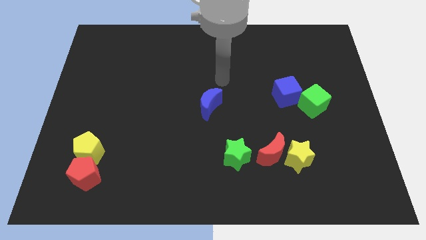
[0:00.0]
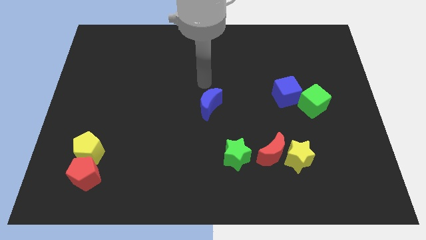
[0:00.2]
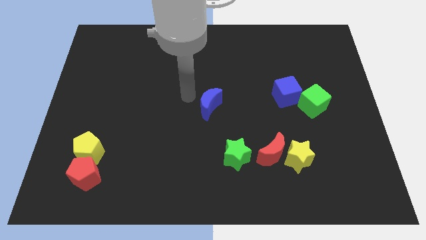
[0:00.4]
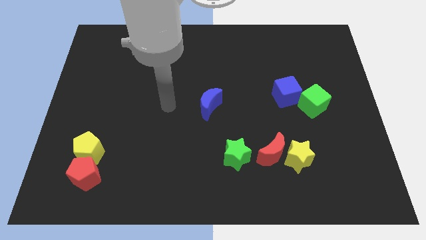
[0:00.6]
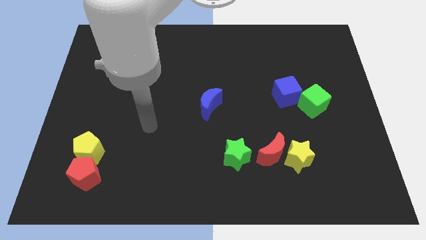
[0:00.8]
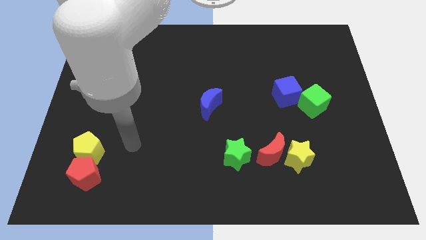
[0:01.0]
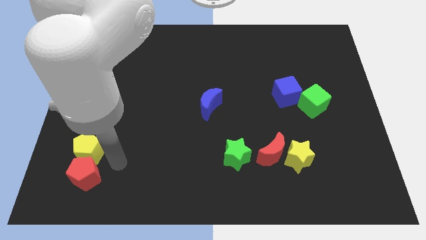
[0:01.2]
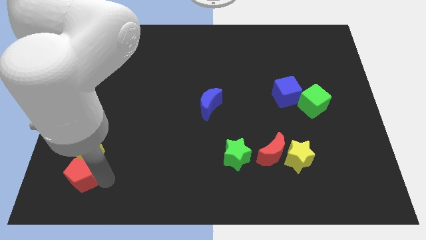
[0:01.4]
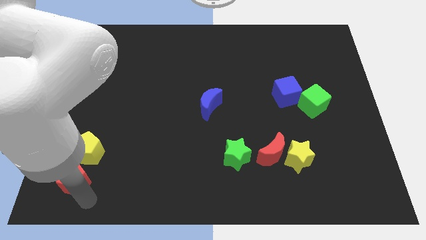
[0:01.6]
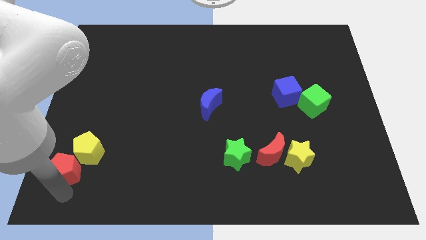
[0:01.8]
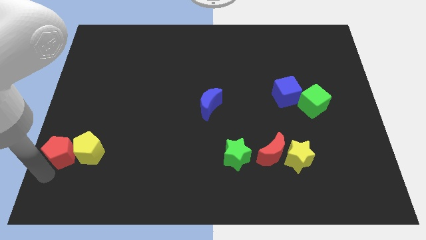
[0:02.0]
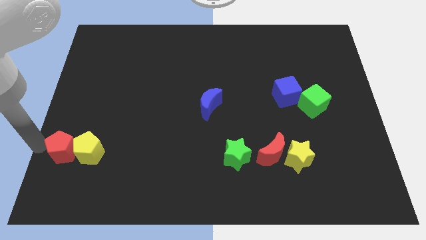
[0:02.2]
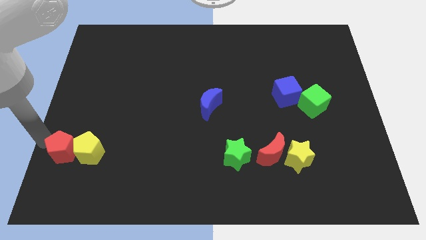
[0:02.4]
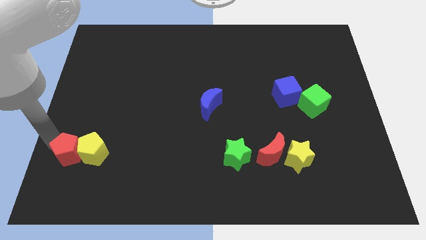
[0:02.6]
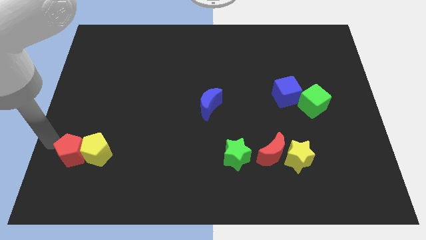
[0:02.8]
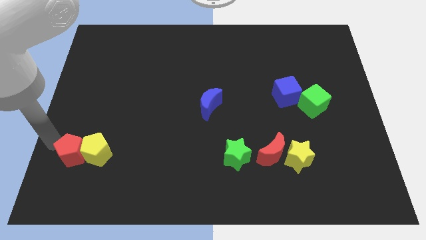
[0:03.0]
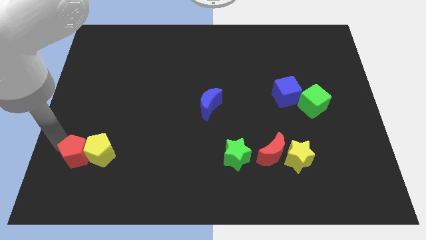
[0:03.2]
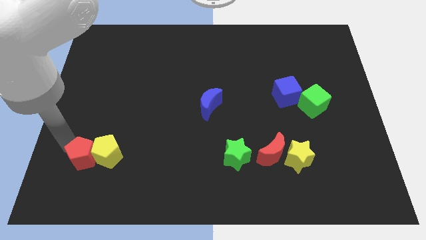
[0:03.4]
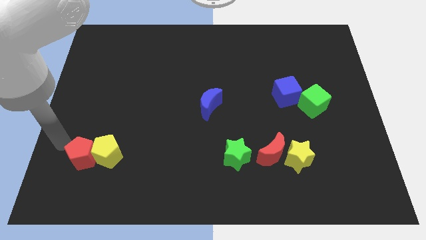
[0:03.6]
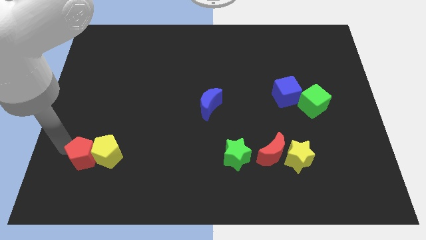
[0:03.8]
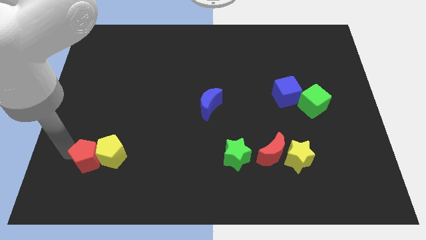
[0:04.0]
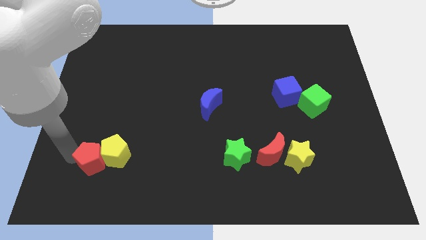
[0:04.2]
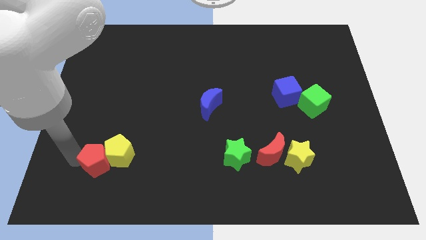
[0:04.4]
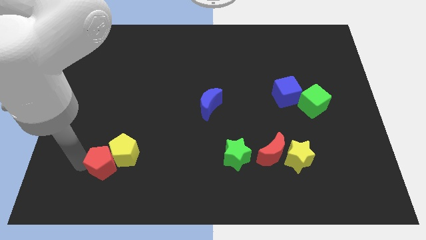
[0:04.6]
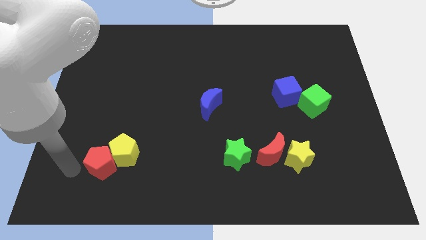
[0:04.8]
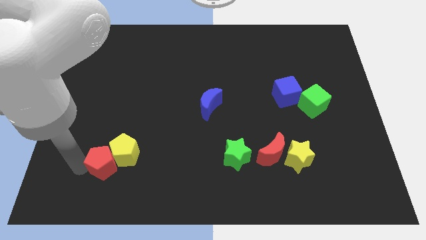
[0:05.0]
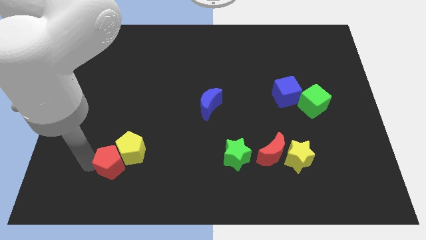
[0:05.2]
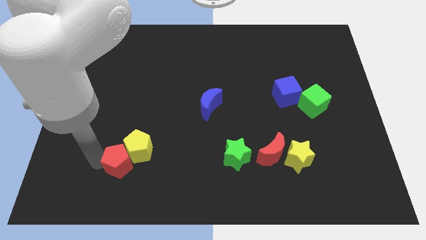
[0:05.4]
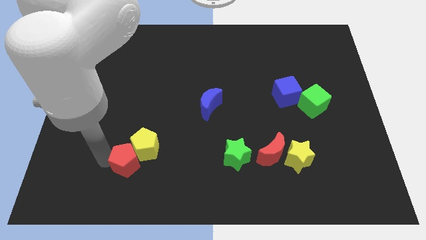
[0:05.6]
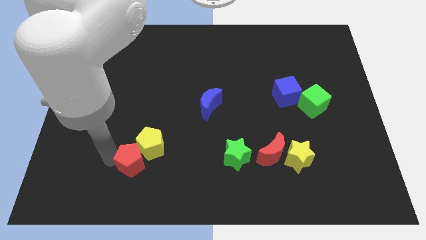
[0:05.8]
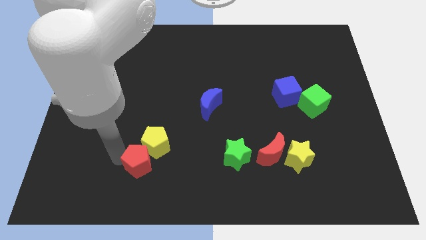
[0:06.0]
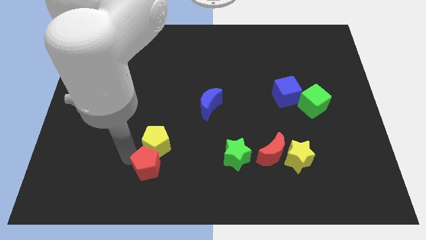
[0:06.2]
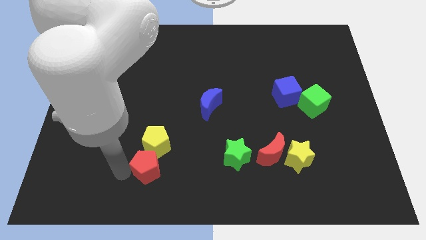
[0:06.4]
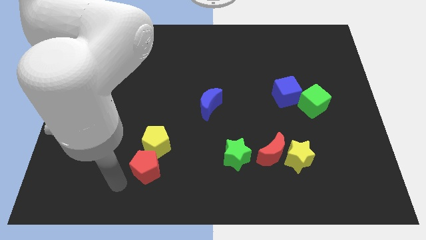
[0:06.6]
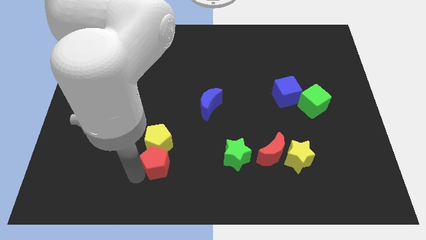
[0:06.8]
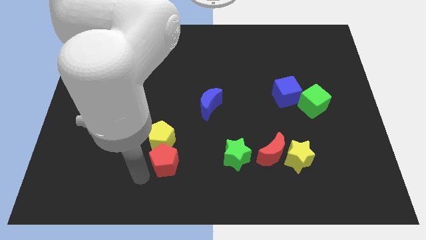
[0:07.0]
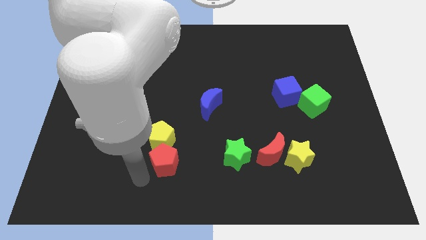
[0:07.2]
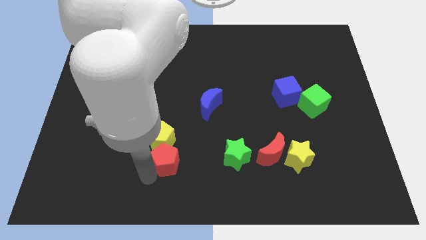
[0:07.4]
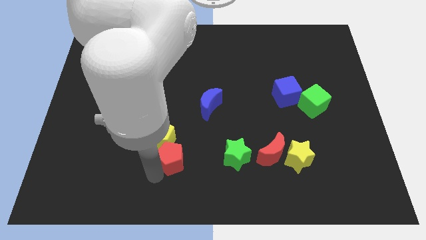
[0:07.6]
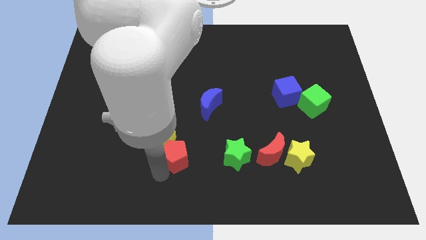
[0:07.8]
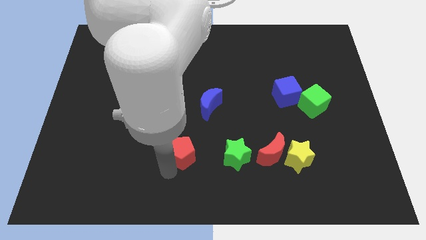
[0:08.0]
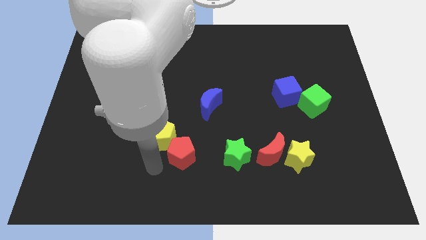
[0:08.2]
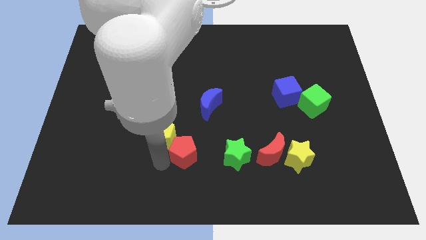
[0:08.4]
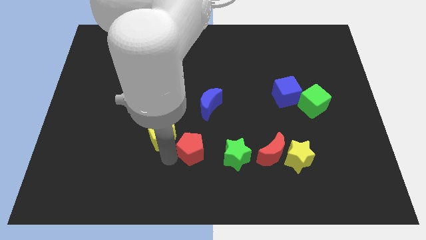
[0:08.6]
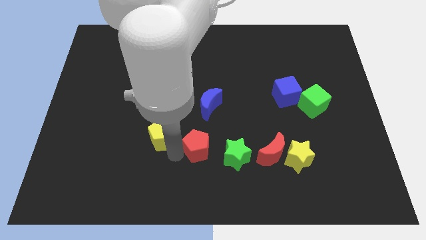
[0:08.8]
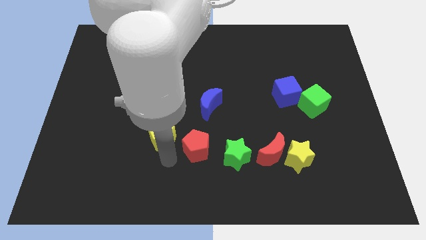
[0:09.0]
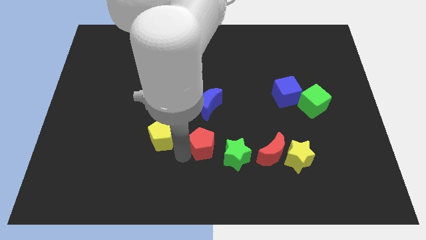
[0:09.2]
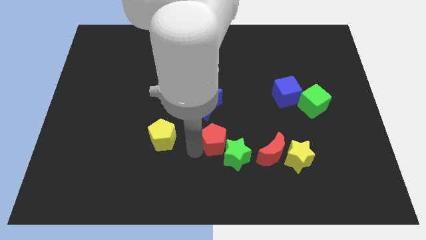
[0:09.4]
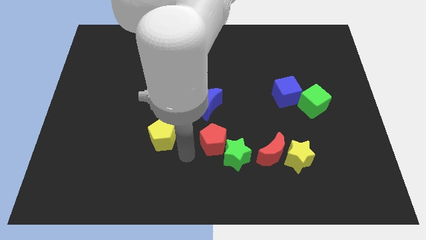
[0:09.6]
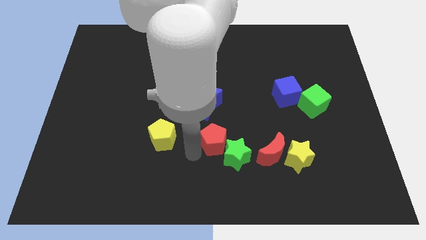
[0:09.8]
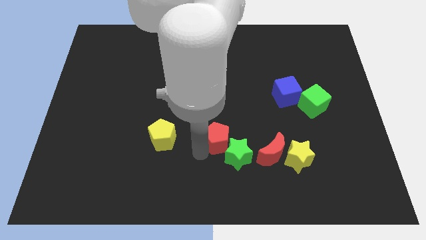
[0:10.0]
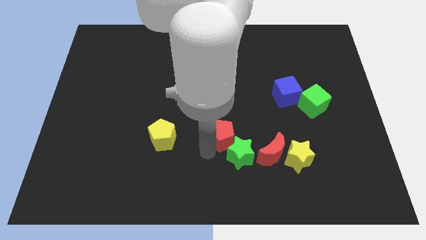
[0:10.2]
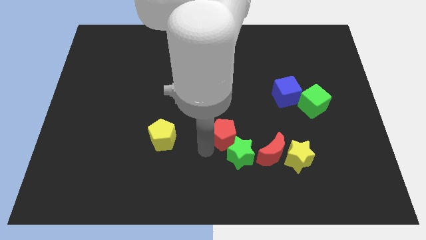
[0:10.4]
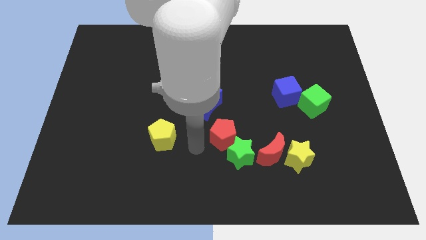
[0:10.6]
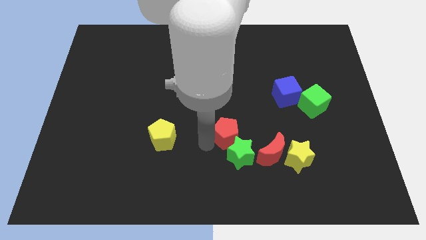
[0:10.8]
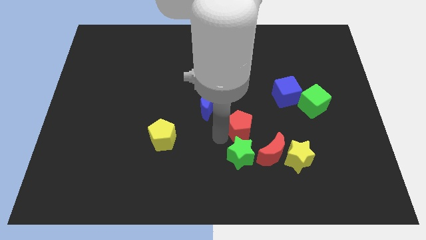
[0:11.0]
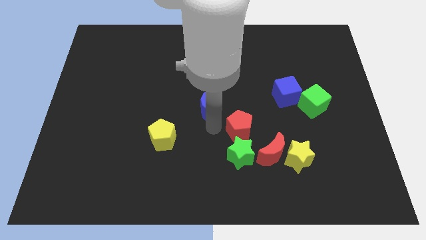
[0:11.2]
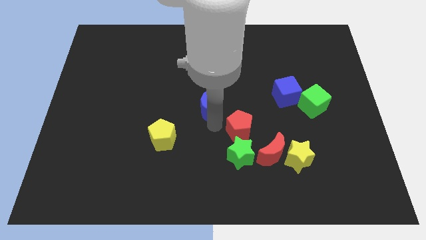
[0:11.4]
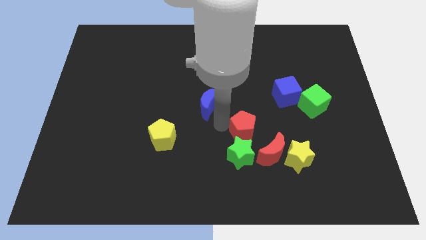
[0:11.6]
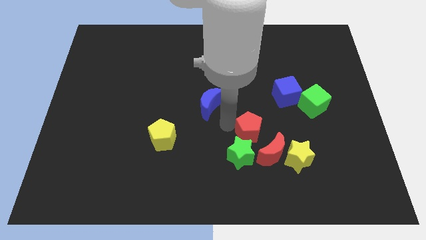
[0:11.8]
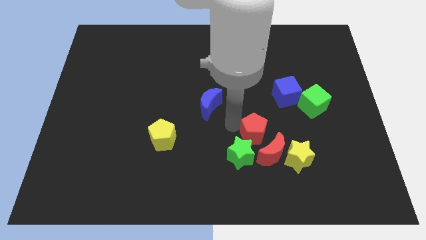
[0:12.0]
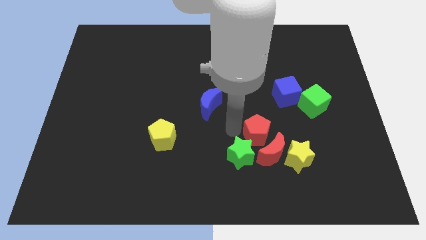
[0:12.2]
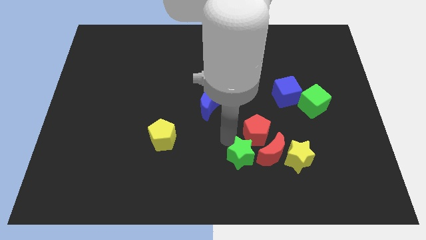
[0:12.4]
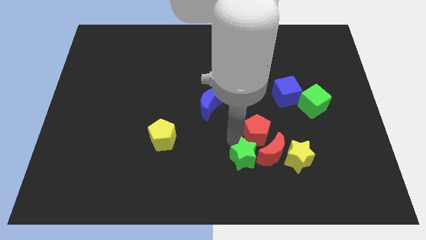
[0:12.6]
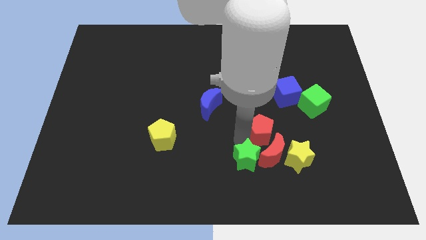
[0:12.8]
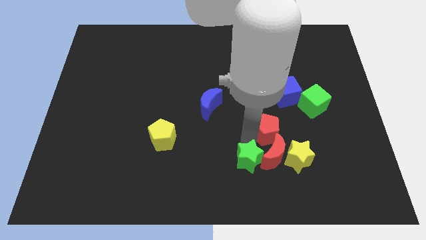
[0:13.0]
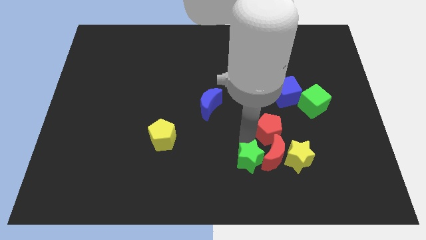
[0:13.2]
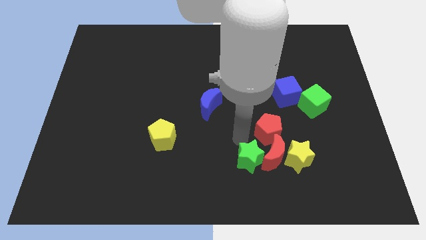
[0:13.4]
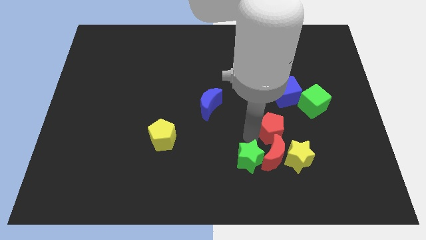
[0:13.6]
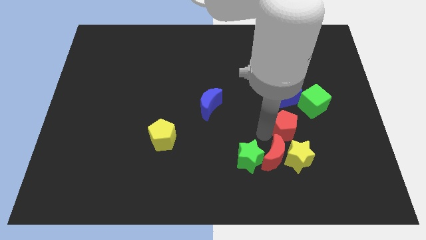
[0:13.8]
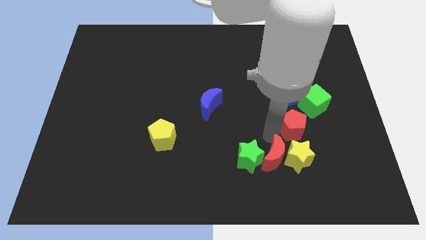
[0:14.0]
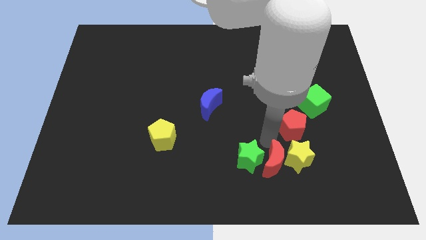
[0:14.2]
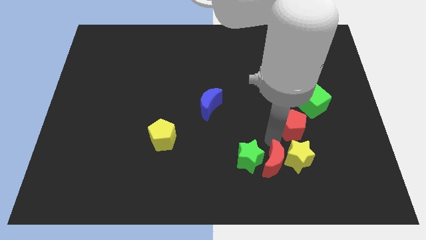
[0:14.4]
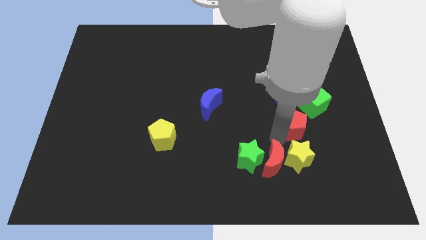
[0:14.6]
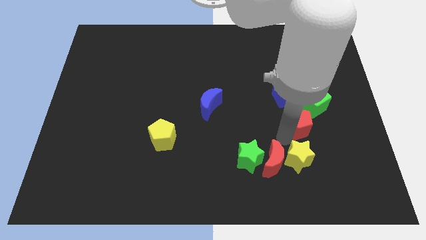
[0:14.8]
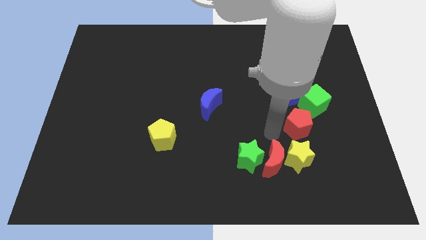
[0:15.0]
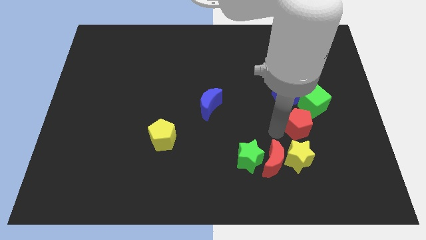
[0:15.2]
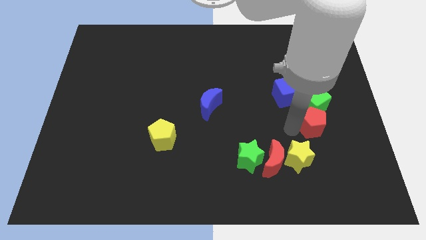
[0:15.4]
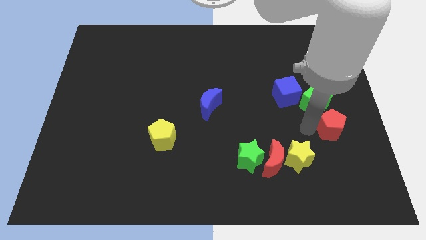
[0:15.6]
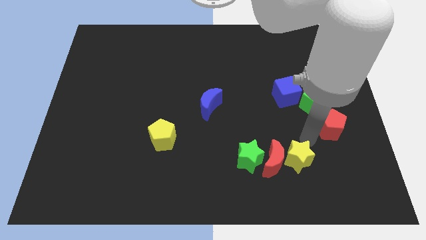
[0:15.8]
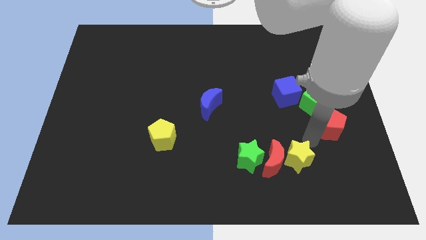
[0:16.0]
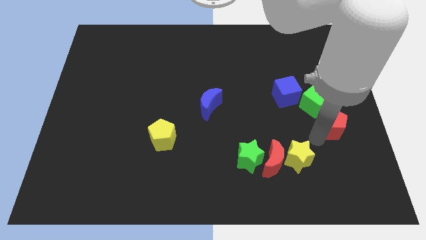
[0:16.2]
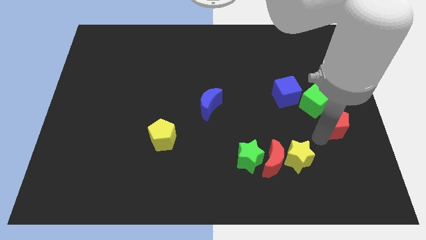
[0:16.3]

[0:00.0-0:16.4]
slide the red pentagon to the right side of the board
